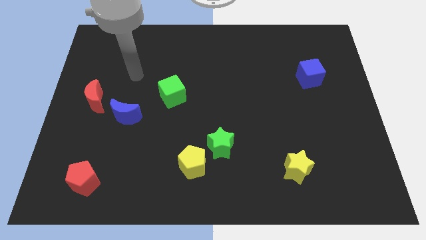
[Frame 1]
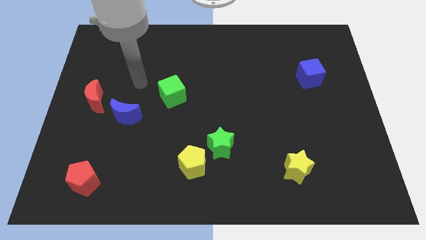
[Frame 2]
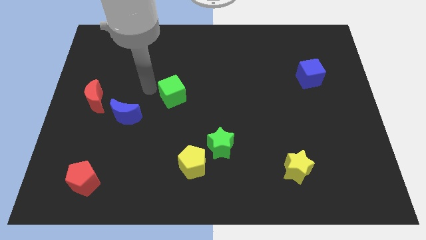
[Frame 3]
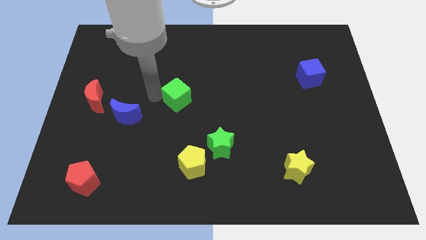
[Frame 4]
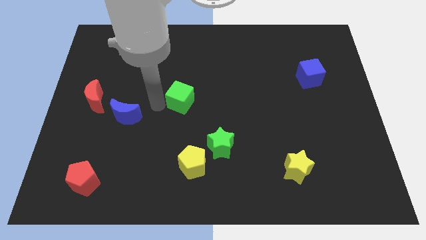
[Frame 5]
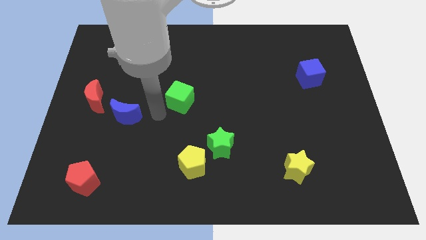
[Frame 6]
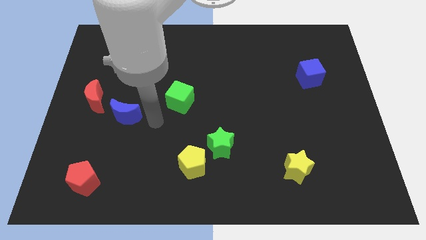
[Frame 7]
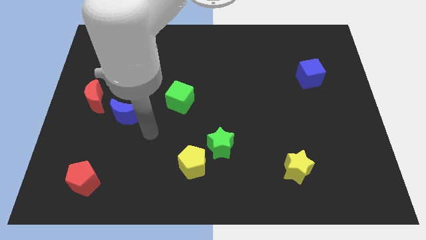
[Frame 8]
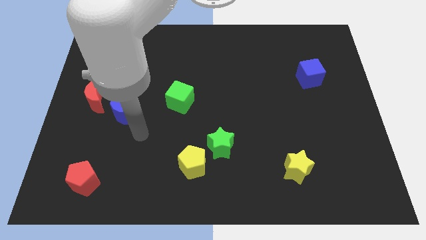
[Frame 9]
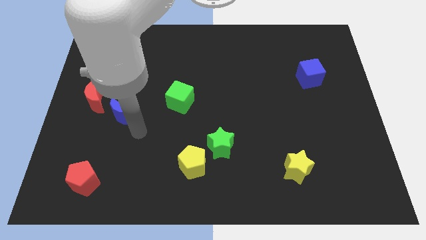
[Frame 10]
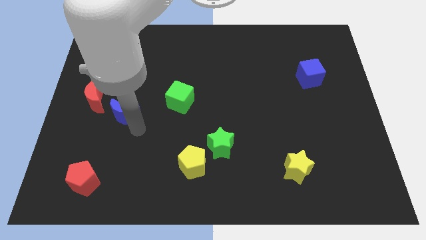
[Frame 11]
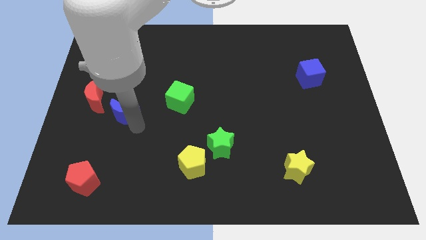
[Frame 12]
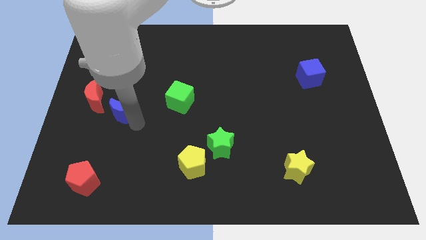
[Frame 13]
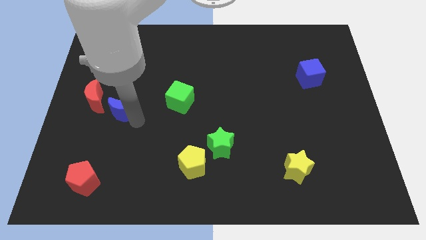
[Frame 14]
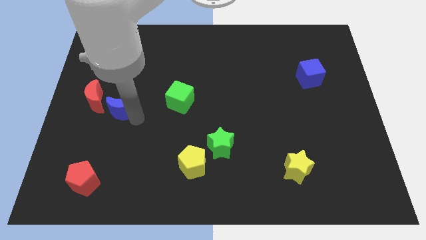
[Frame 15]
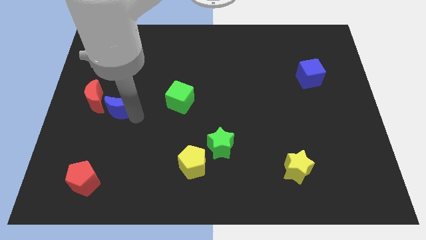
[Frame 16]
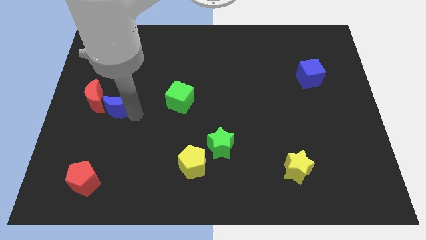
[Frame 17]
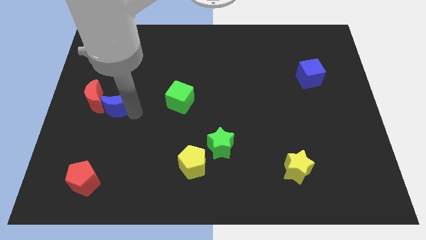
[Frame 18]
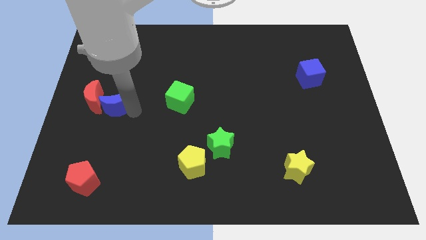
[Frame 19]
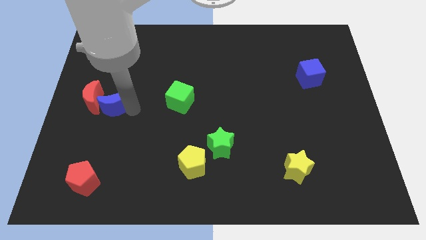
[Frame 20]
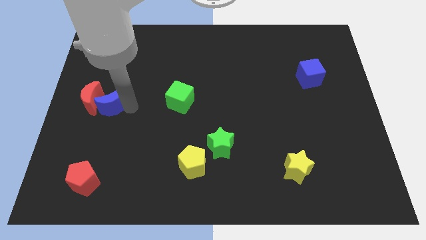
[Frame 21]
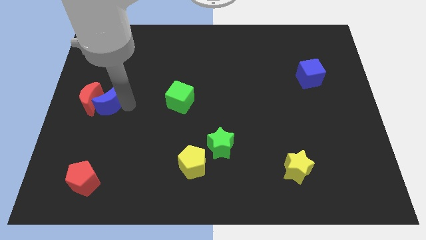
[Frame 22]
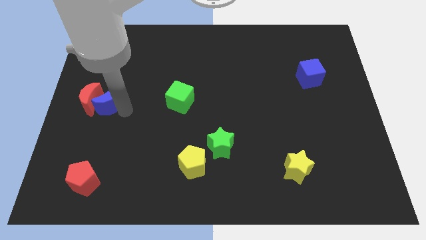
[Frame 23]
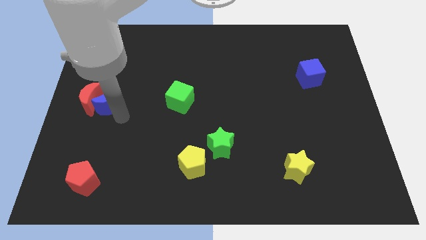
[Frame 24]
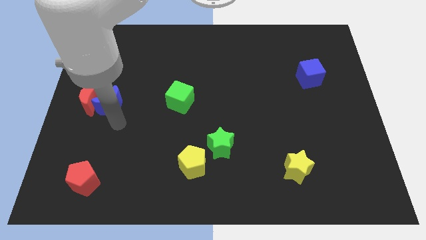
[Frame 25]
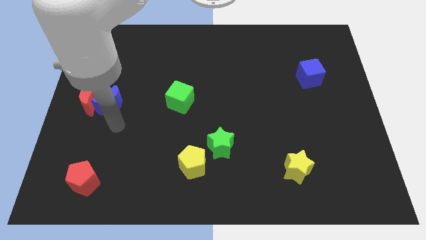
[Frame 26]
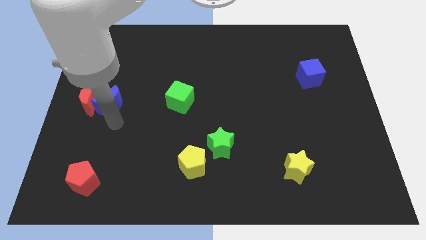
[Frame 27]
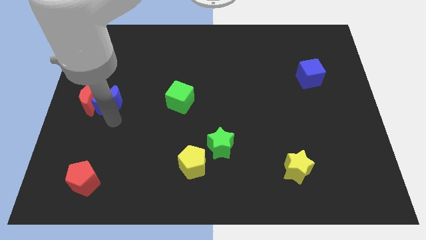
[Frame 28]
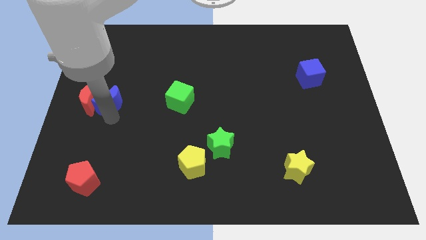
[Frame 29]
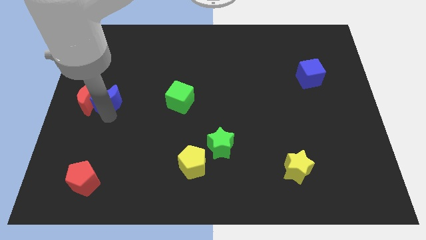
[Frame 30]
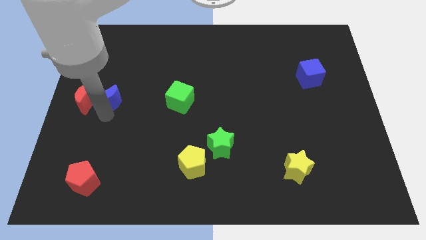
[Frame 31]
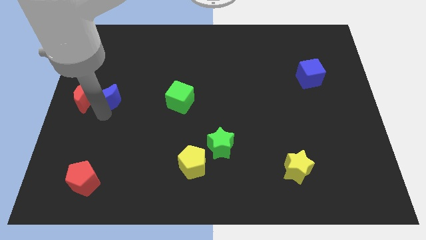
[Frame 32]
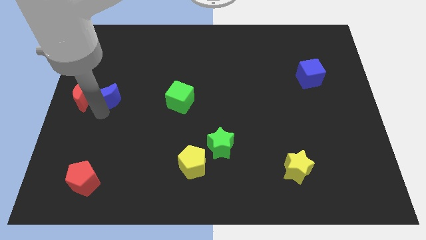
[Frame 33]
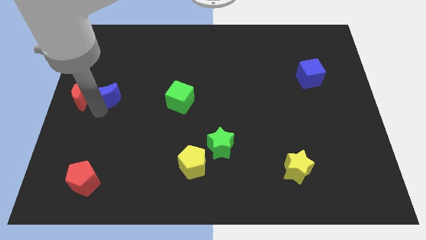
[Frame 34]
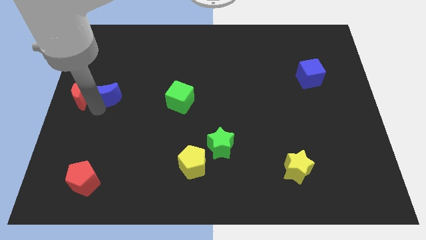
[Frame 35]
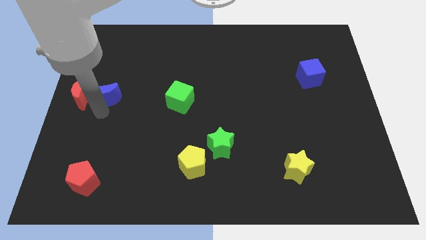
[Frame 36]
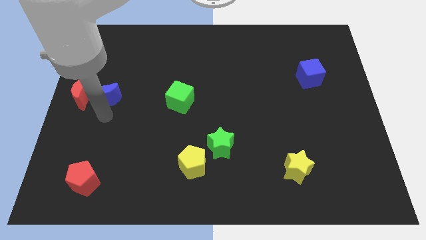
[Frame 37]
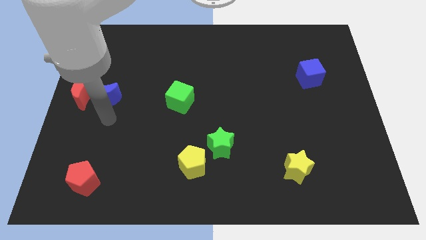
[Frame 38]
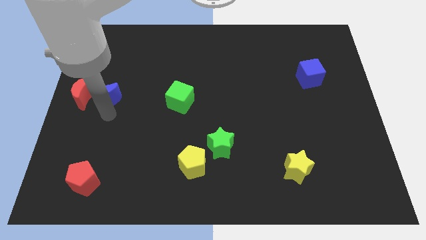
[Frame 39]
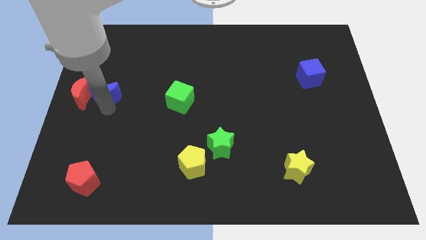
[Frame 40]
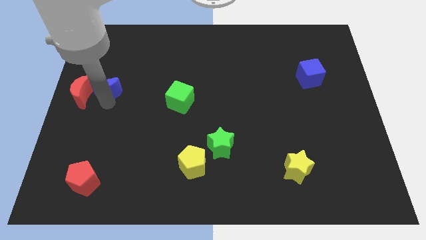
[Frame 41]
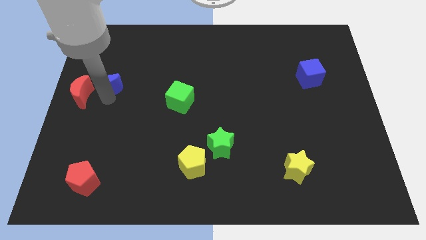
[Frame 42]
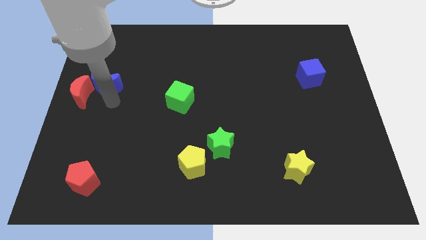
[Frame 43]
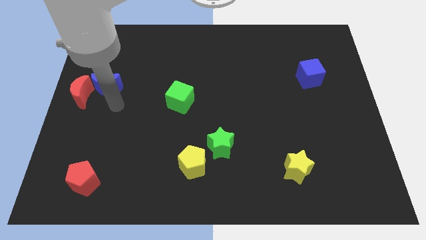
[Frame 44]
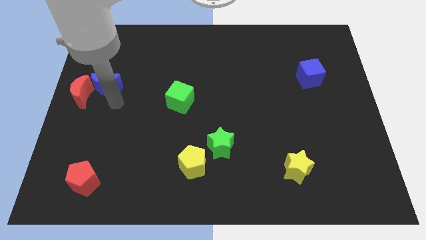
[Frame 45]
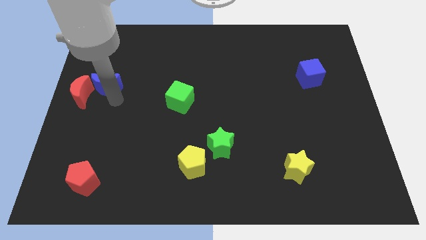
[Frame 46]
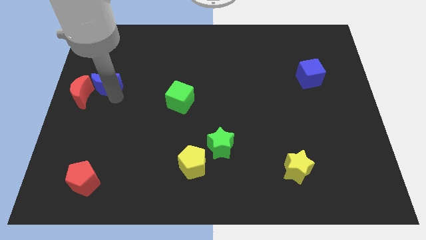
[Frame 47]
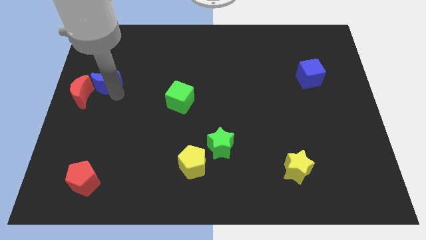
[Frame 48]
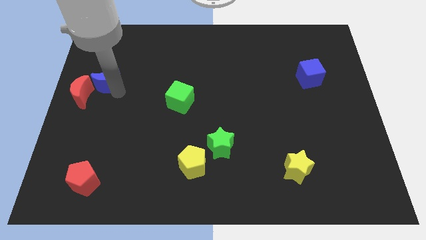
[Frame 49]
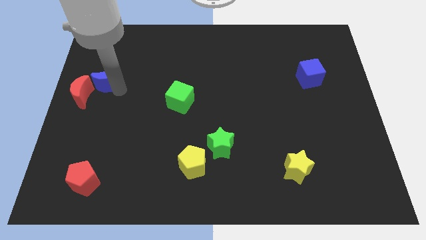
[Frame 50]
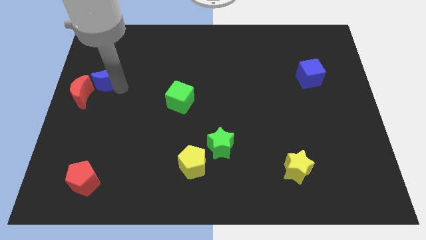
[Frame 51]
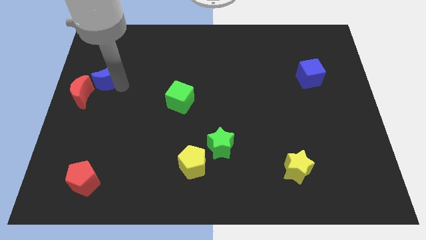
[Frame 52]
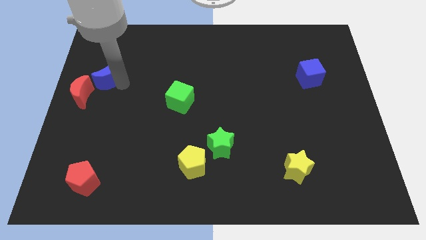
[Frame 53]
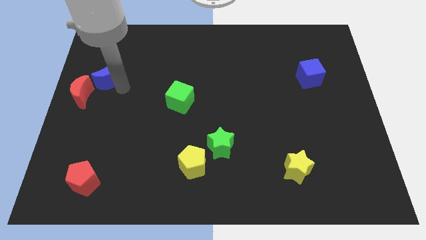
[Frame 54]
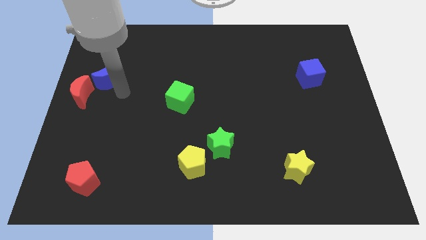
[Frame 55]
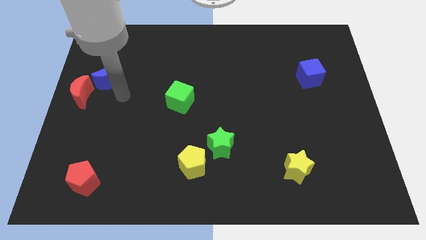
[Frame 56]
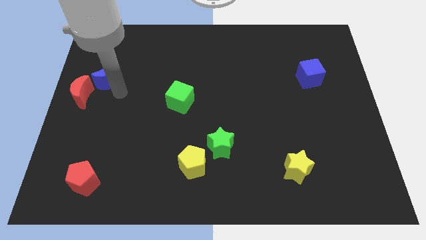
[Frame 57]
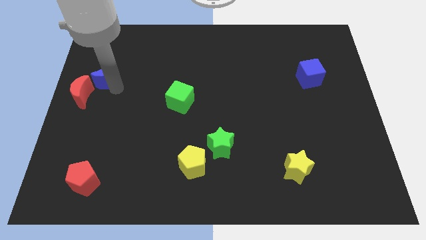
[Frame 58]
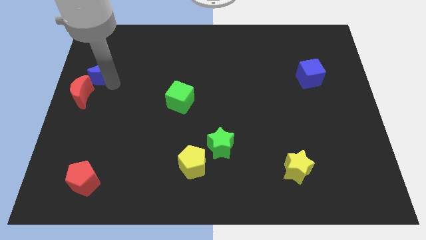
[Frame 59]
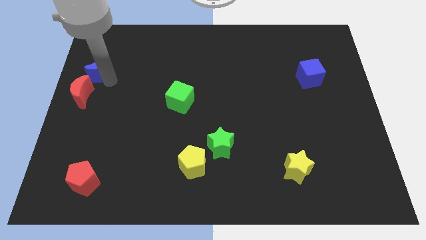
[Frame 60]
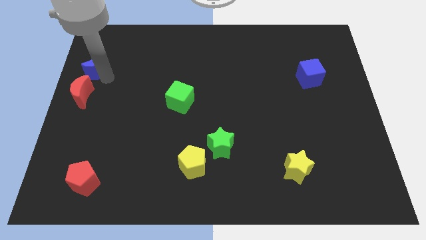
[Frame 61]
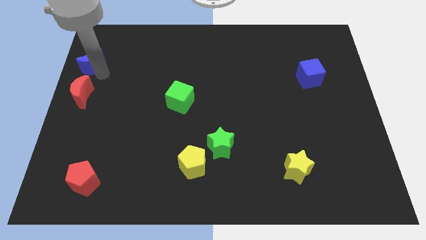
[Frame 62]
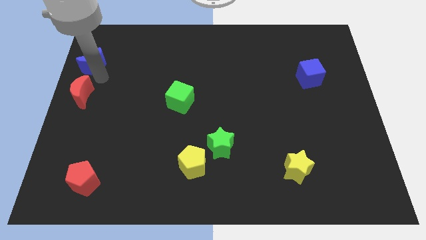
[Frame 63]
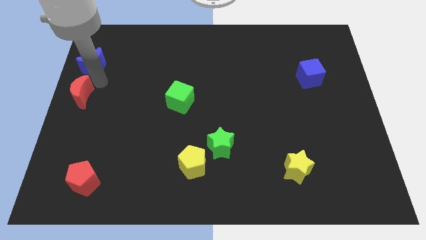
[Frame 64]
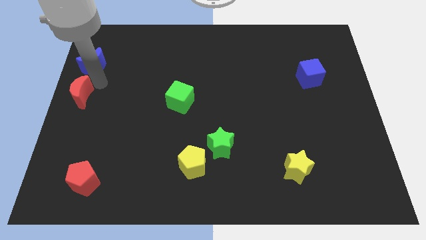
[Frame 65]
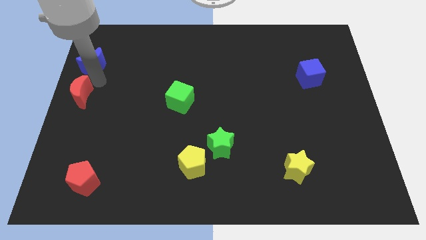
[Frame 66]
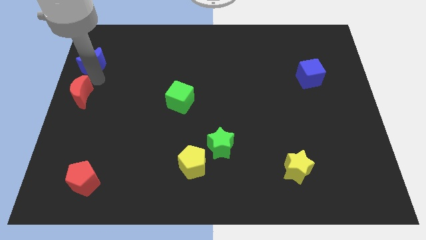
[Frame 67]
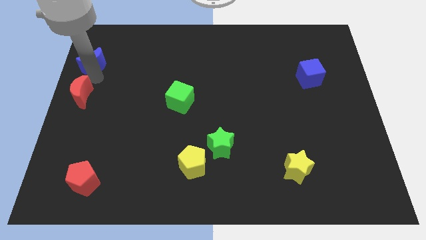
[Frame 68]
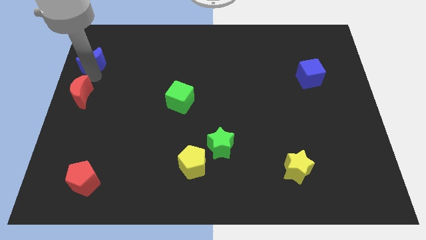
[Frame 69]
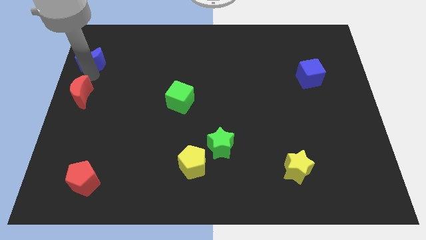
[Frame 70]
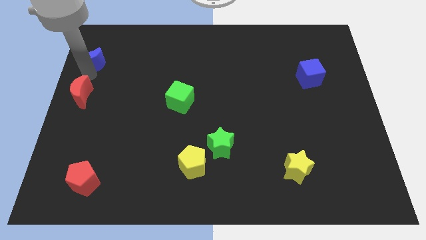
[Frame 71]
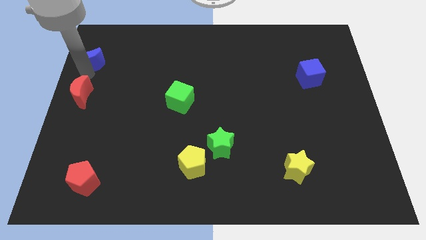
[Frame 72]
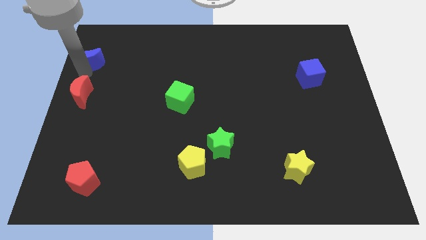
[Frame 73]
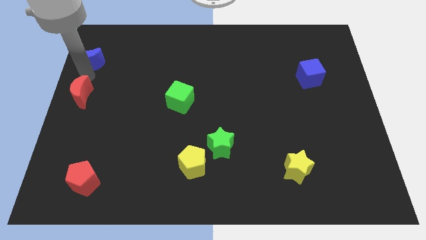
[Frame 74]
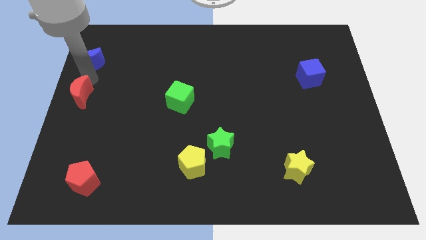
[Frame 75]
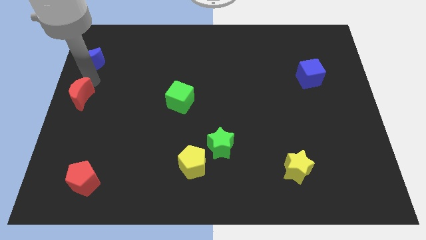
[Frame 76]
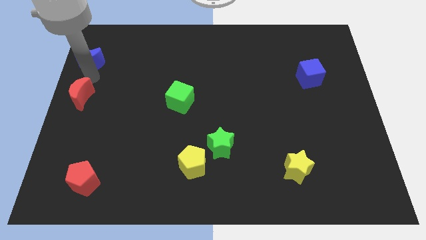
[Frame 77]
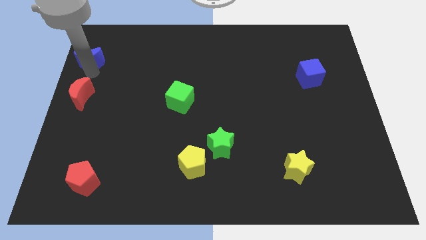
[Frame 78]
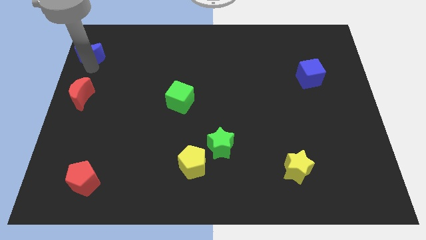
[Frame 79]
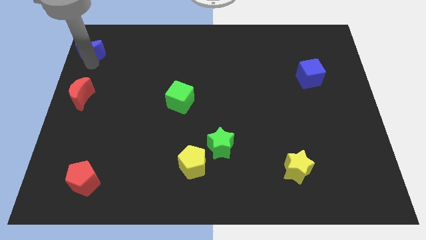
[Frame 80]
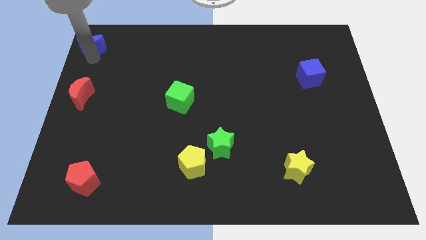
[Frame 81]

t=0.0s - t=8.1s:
put the blue moon to the upper left corner
